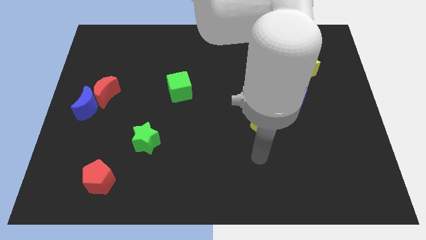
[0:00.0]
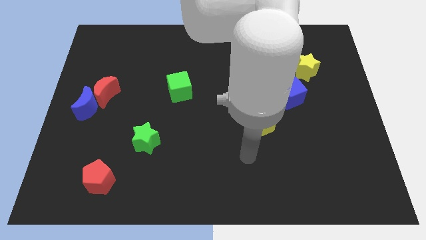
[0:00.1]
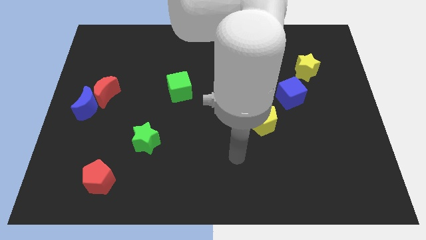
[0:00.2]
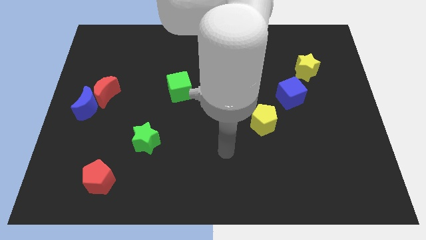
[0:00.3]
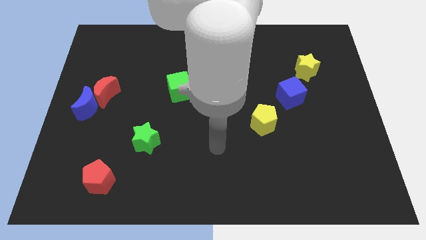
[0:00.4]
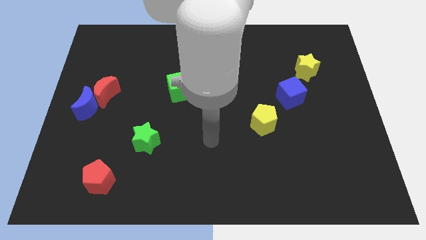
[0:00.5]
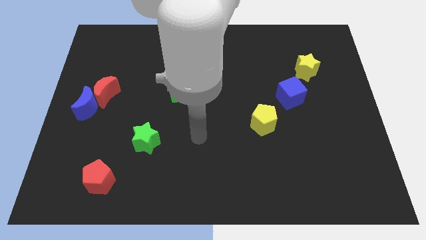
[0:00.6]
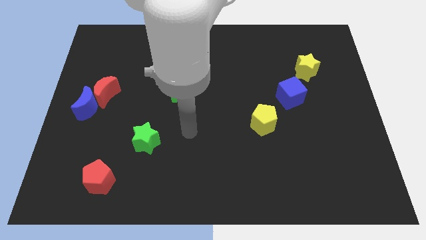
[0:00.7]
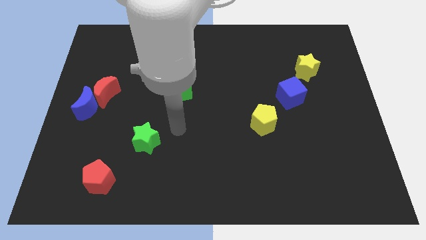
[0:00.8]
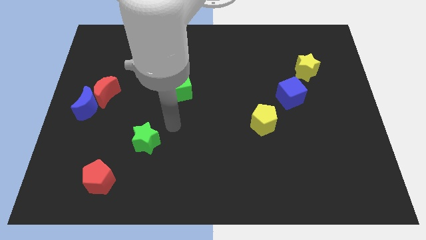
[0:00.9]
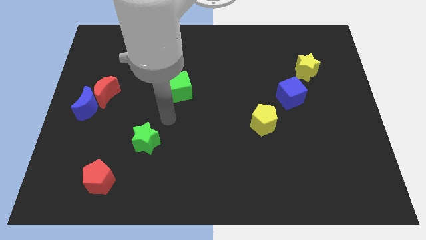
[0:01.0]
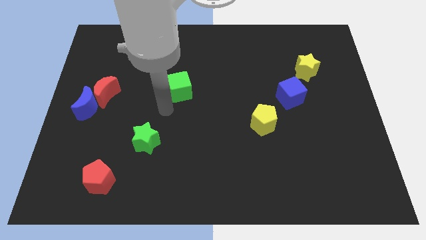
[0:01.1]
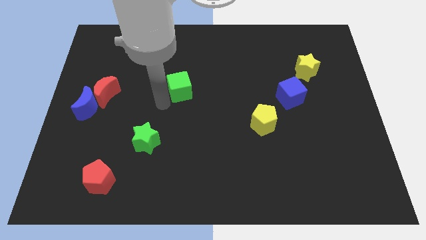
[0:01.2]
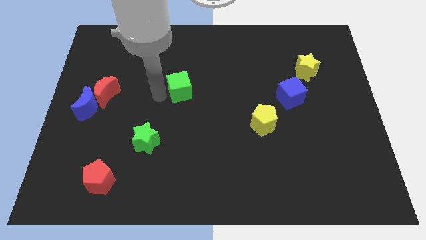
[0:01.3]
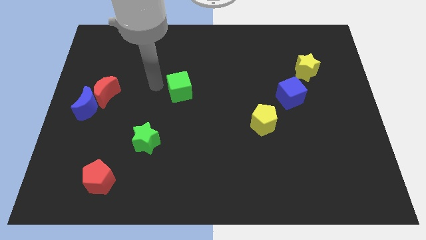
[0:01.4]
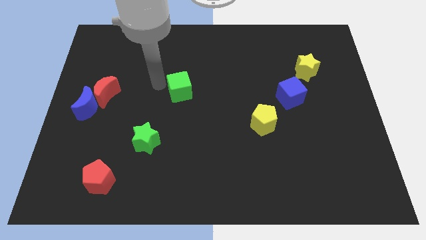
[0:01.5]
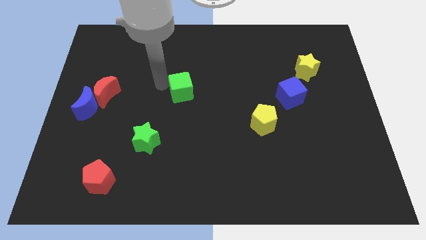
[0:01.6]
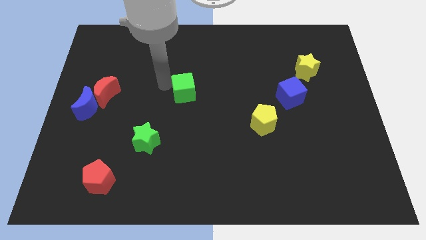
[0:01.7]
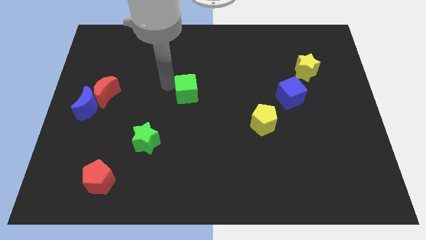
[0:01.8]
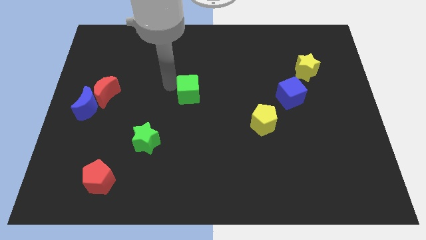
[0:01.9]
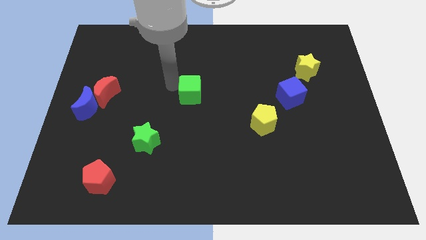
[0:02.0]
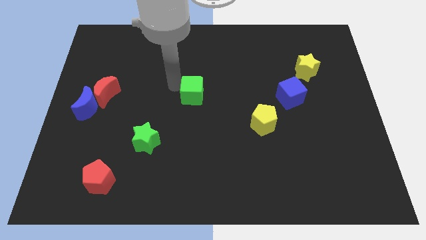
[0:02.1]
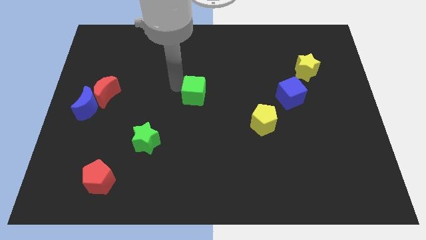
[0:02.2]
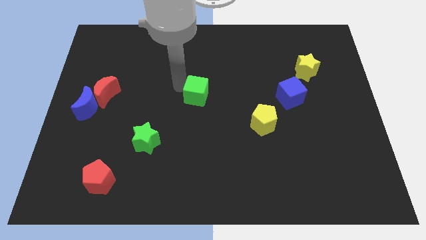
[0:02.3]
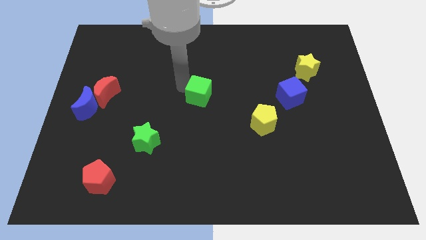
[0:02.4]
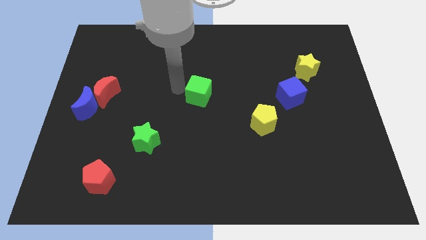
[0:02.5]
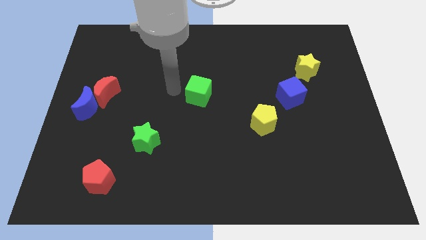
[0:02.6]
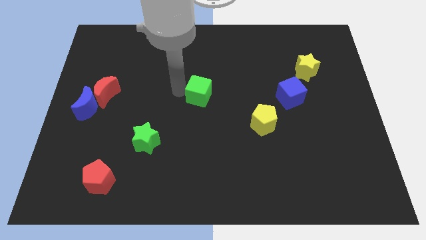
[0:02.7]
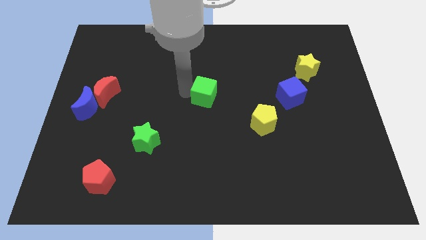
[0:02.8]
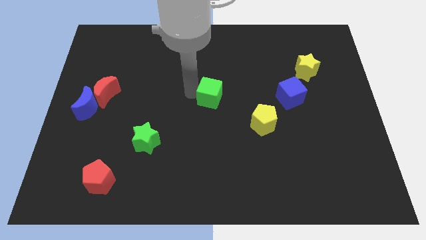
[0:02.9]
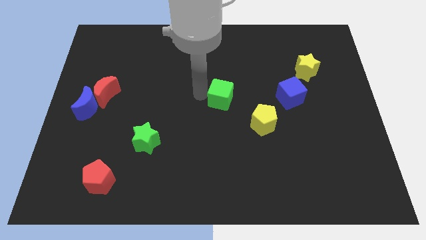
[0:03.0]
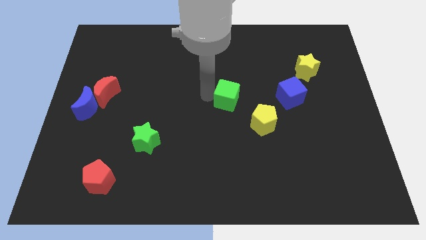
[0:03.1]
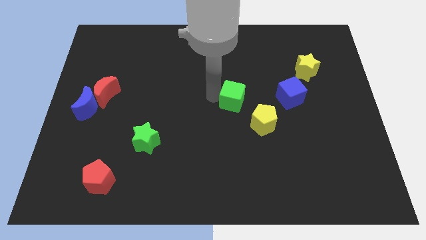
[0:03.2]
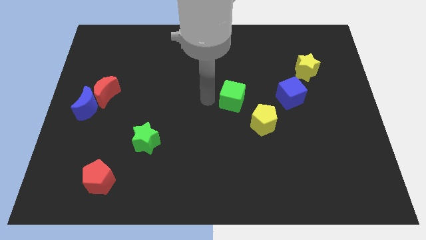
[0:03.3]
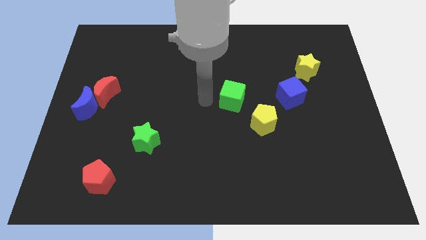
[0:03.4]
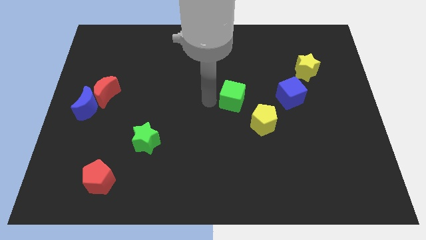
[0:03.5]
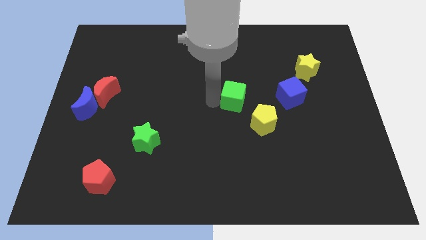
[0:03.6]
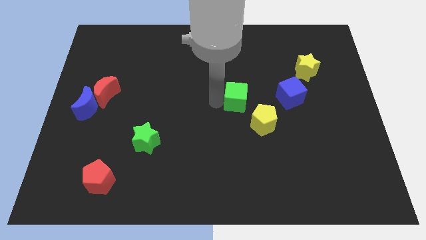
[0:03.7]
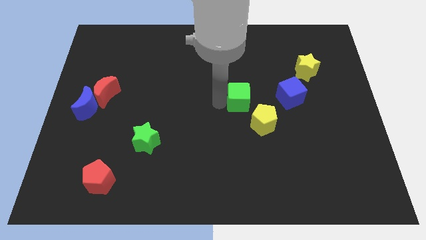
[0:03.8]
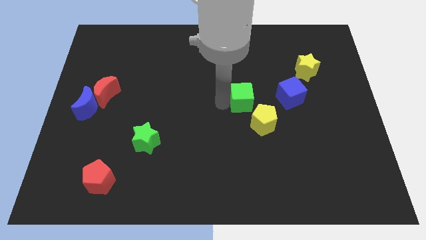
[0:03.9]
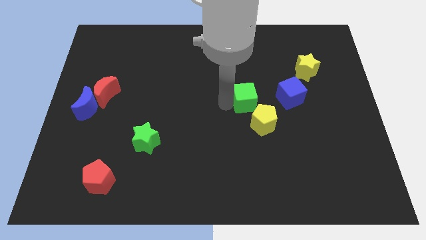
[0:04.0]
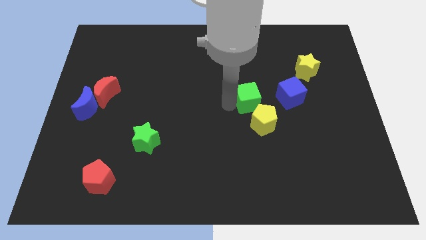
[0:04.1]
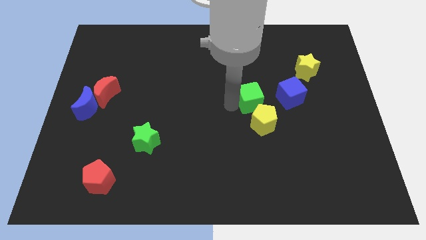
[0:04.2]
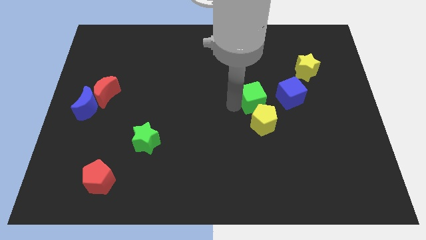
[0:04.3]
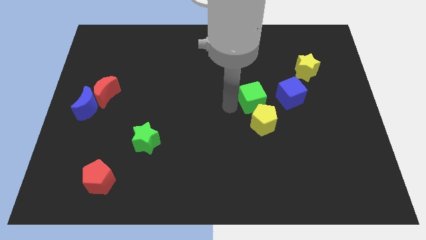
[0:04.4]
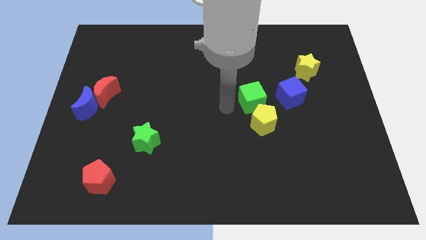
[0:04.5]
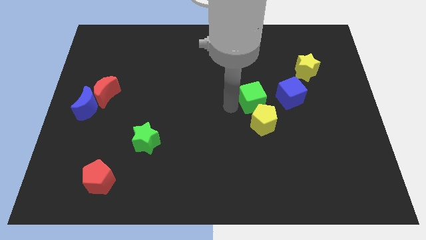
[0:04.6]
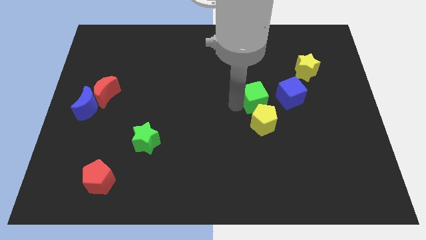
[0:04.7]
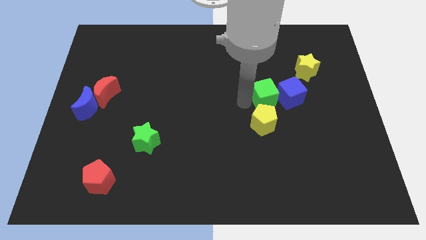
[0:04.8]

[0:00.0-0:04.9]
push the green cube close to the blue cube

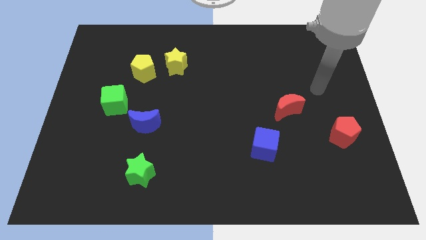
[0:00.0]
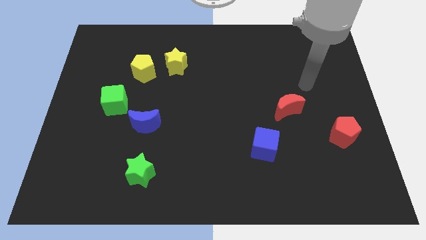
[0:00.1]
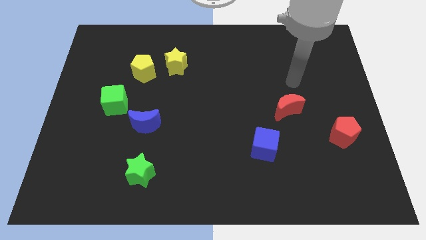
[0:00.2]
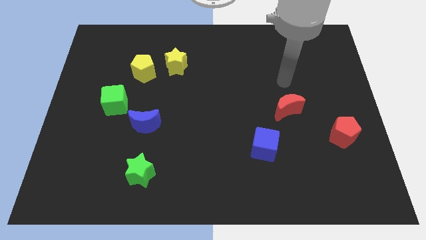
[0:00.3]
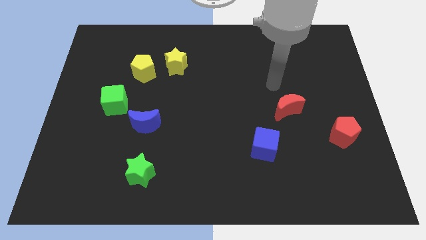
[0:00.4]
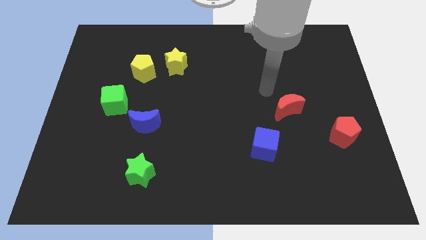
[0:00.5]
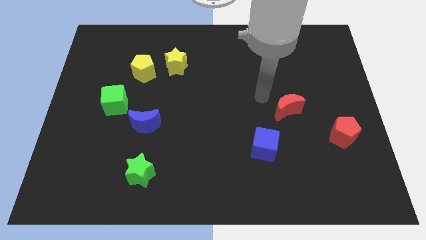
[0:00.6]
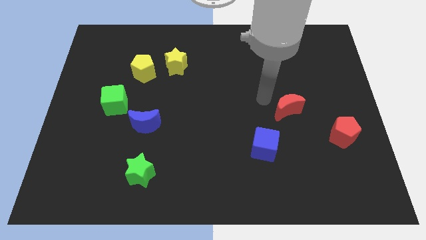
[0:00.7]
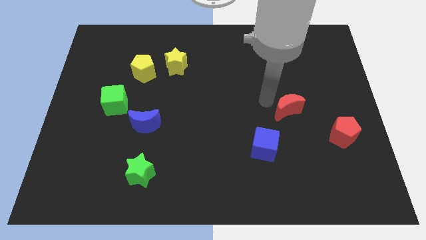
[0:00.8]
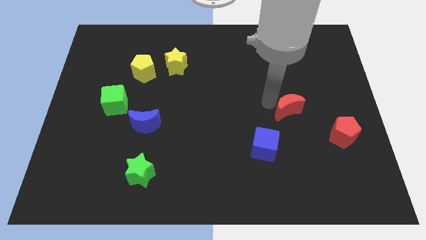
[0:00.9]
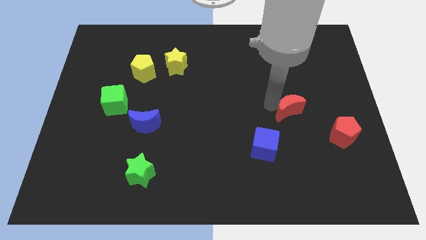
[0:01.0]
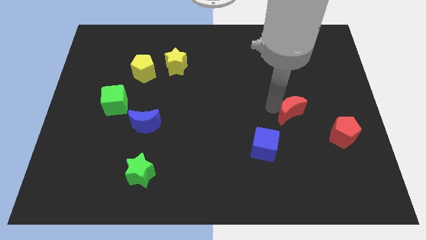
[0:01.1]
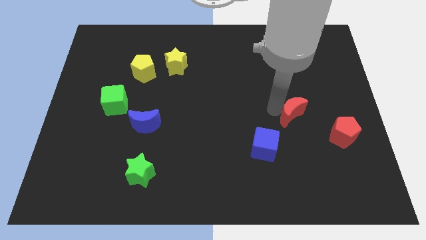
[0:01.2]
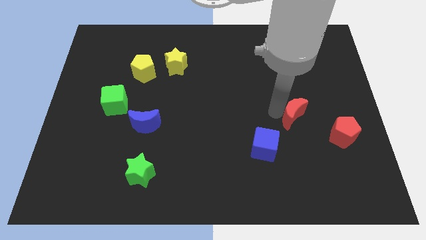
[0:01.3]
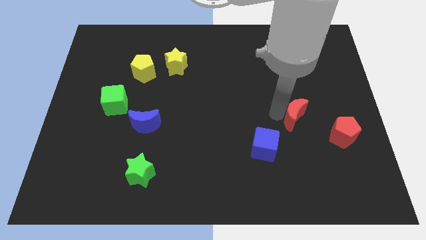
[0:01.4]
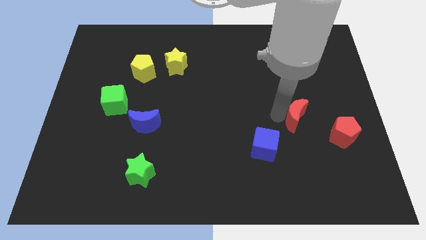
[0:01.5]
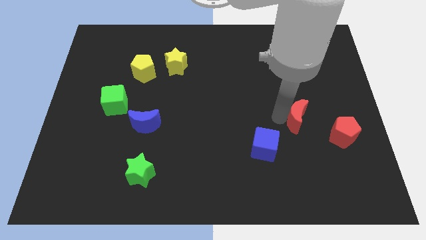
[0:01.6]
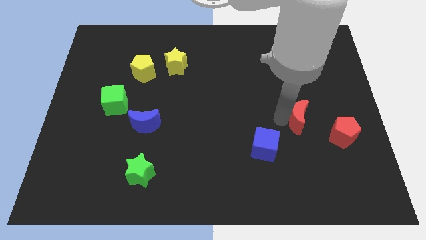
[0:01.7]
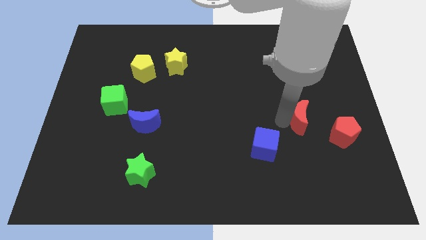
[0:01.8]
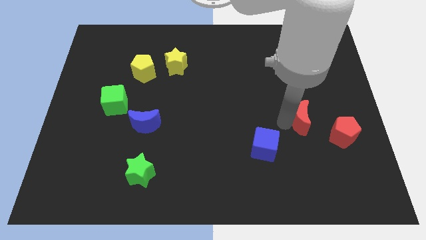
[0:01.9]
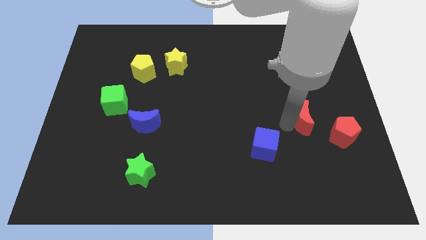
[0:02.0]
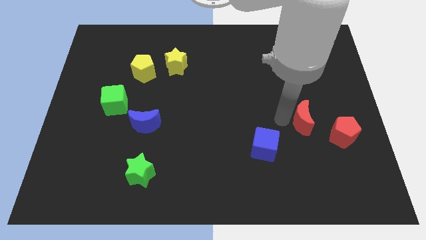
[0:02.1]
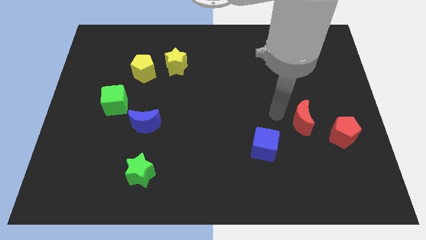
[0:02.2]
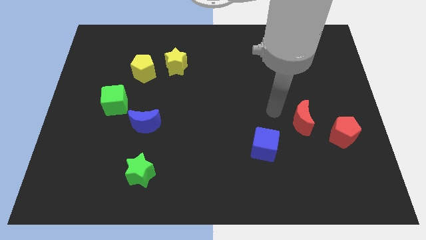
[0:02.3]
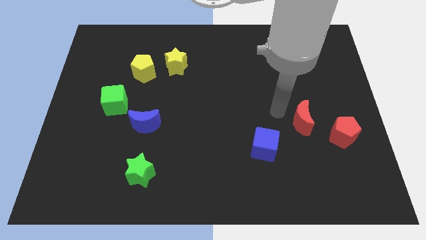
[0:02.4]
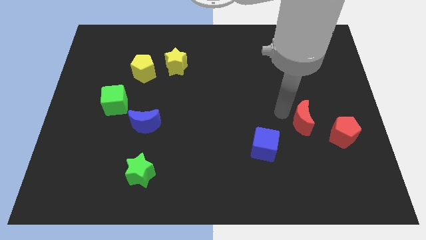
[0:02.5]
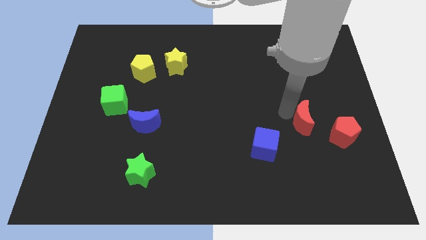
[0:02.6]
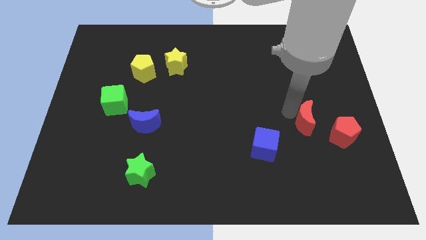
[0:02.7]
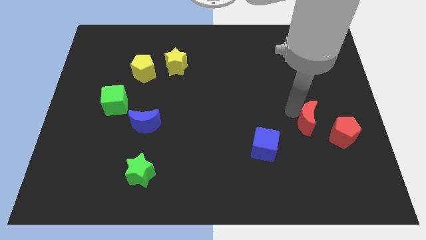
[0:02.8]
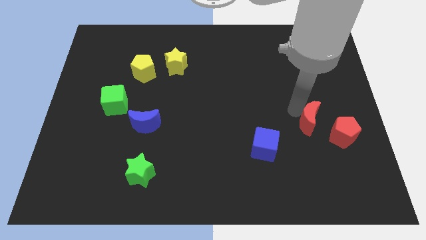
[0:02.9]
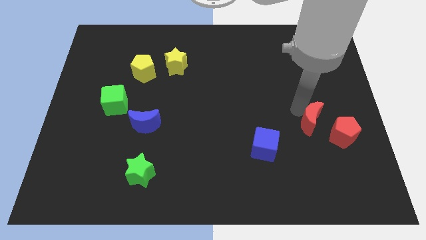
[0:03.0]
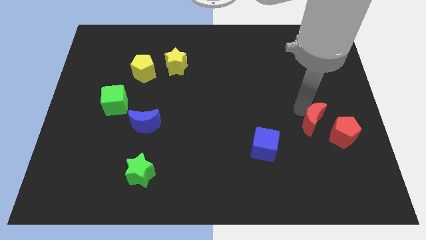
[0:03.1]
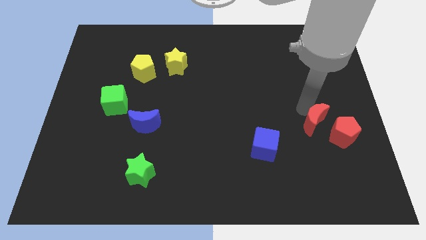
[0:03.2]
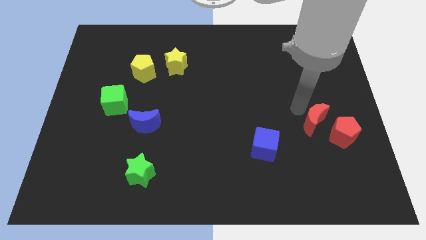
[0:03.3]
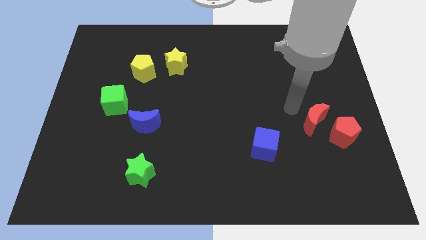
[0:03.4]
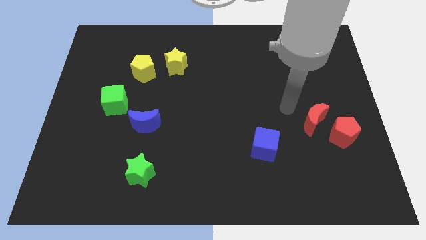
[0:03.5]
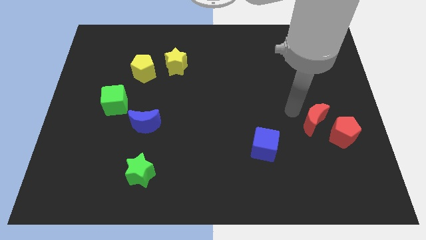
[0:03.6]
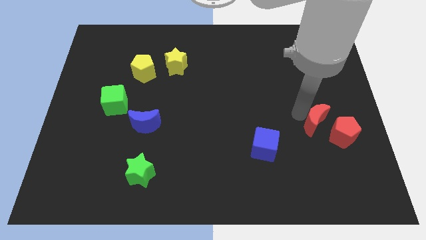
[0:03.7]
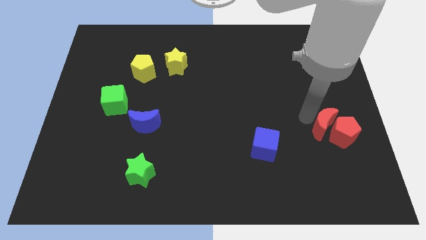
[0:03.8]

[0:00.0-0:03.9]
push the red moon to the red pentagon
